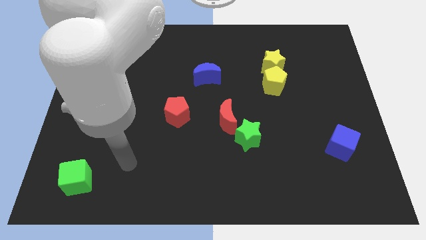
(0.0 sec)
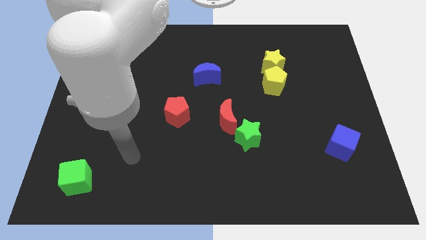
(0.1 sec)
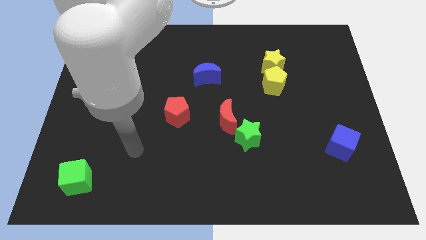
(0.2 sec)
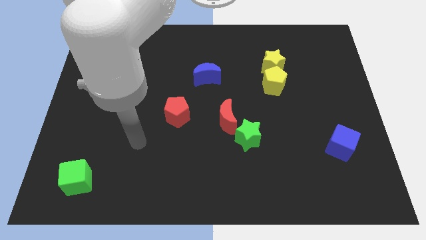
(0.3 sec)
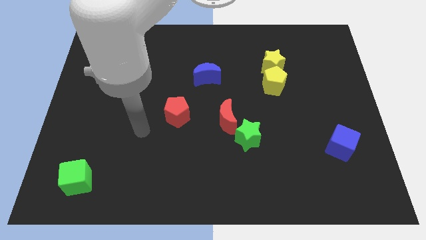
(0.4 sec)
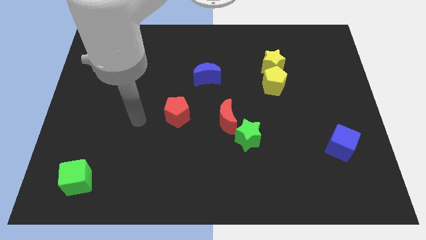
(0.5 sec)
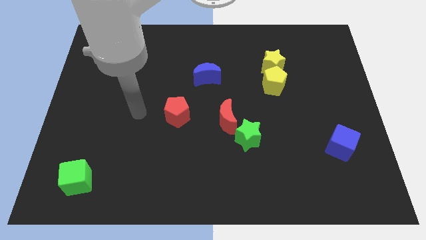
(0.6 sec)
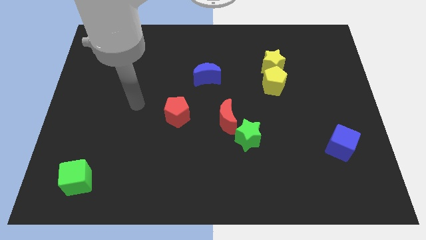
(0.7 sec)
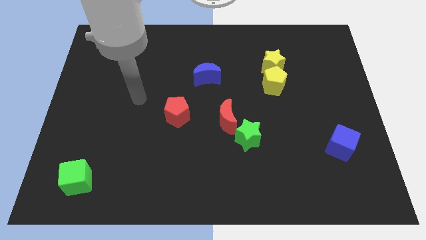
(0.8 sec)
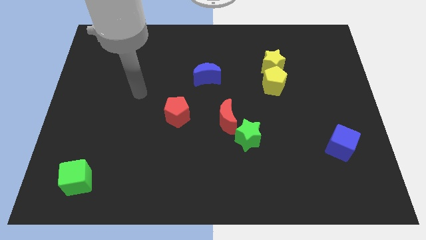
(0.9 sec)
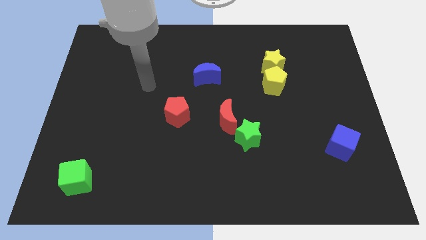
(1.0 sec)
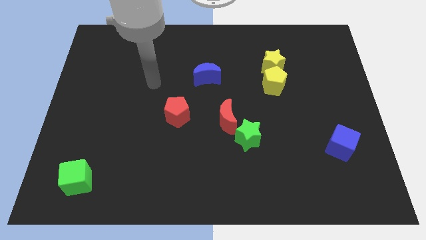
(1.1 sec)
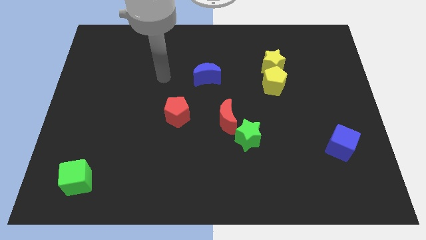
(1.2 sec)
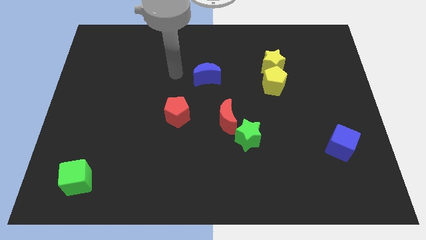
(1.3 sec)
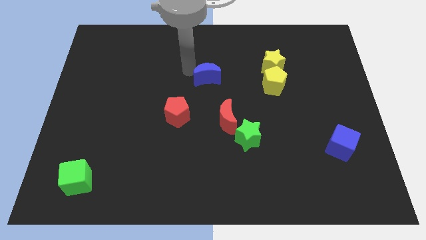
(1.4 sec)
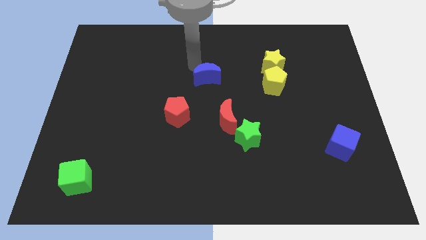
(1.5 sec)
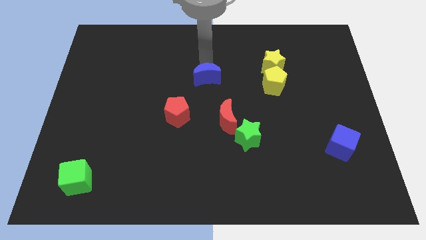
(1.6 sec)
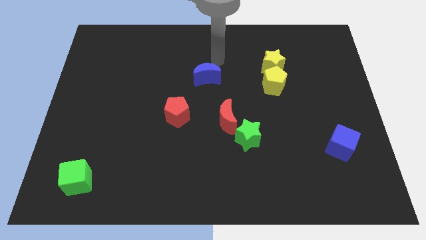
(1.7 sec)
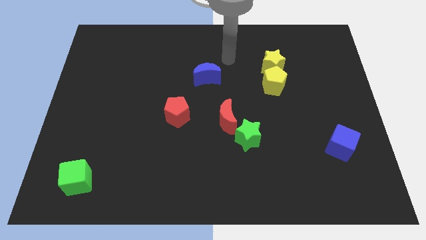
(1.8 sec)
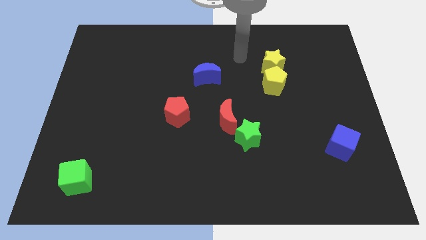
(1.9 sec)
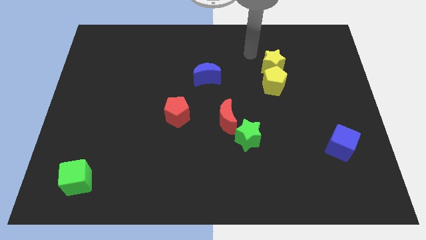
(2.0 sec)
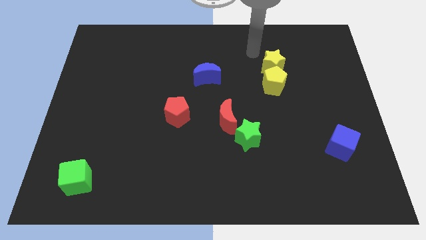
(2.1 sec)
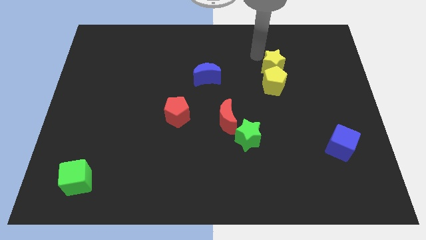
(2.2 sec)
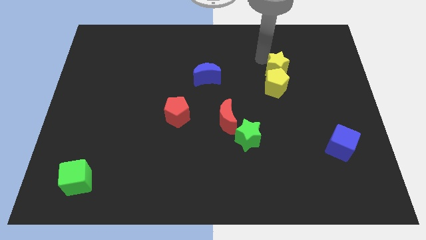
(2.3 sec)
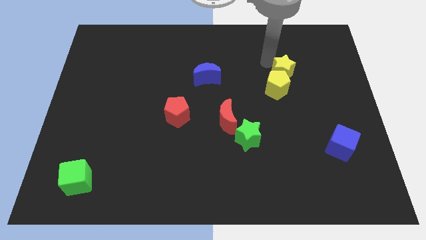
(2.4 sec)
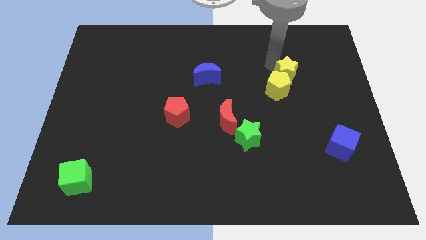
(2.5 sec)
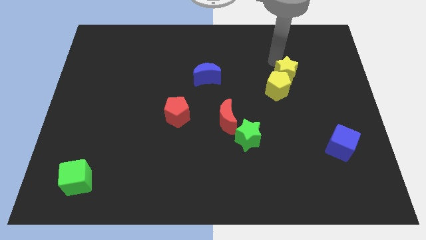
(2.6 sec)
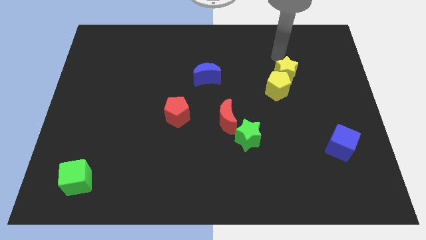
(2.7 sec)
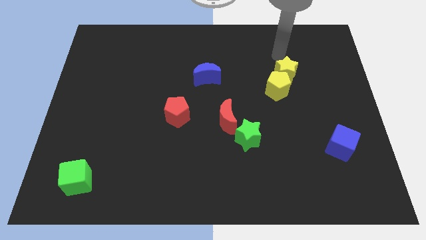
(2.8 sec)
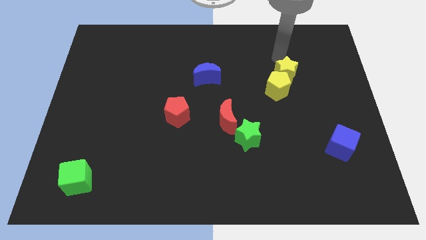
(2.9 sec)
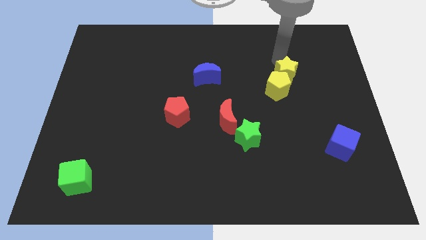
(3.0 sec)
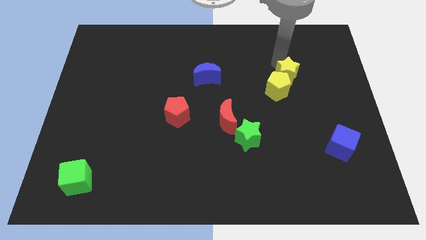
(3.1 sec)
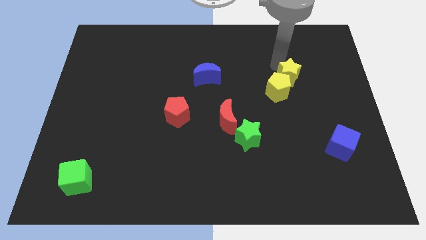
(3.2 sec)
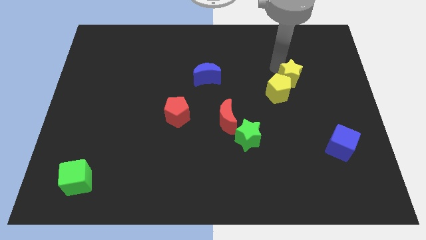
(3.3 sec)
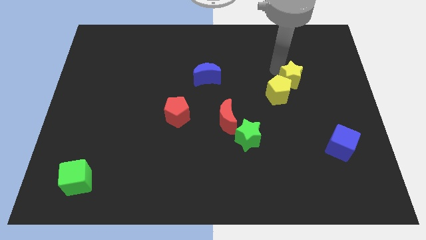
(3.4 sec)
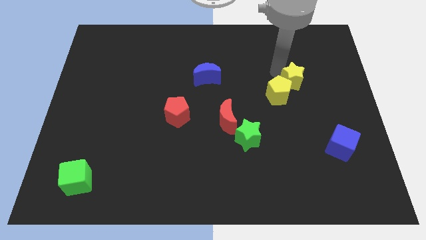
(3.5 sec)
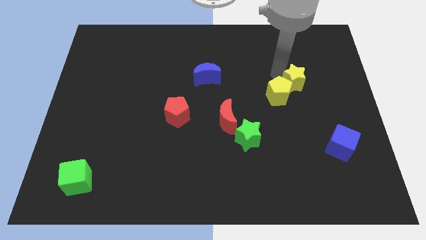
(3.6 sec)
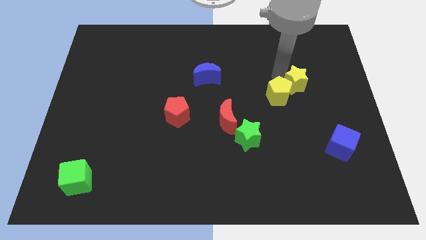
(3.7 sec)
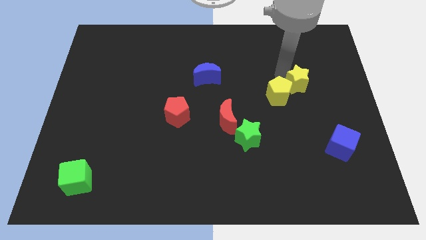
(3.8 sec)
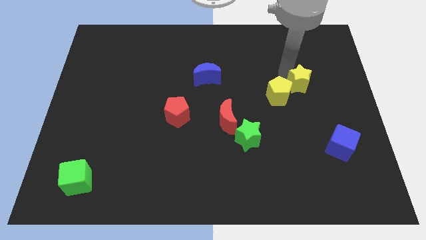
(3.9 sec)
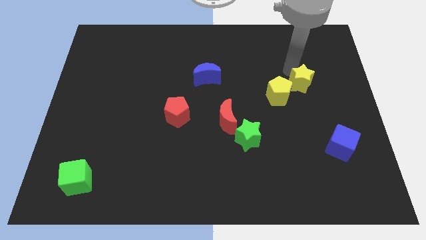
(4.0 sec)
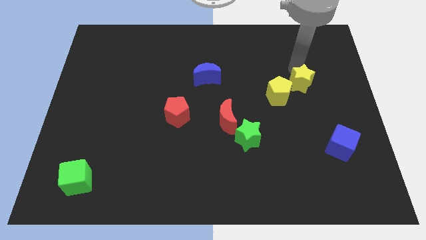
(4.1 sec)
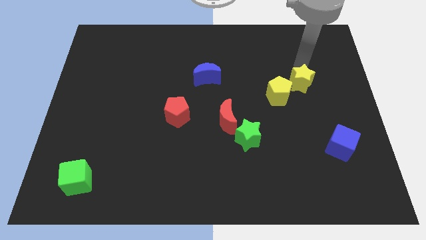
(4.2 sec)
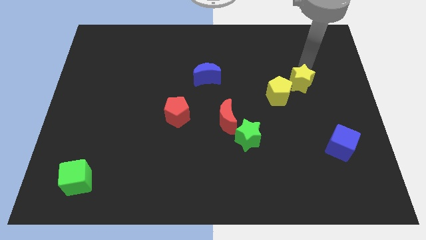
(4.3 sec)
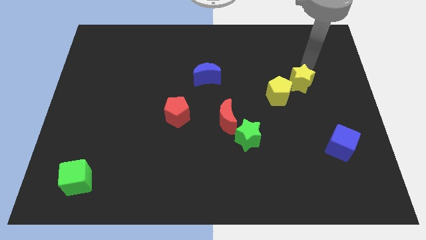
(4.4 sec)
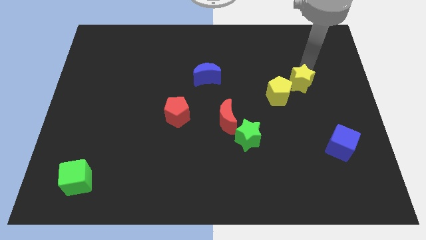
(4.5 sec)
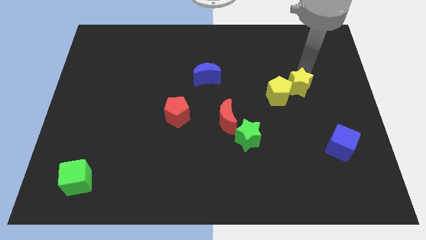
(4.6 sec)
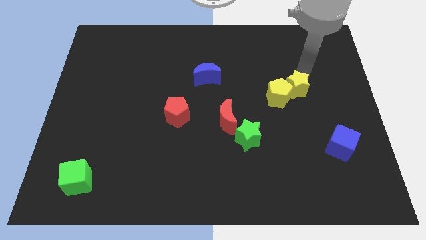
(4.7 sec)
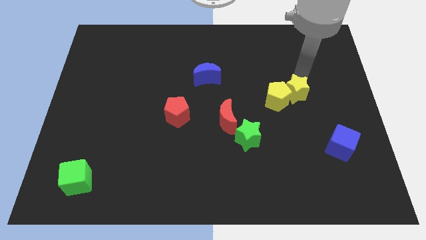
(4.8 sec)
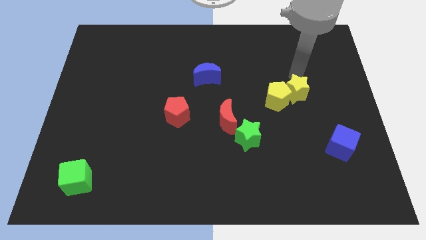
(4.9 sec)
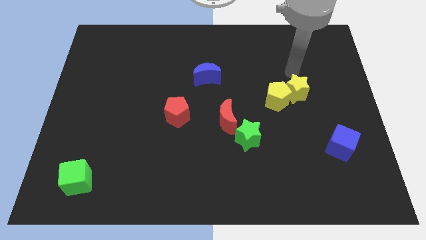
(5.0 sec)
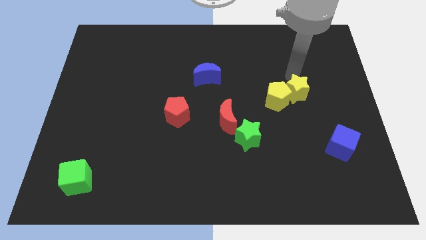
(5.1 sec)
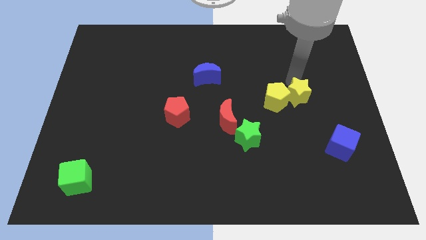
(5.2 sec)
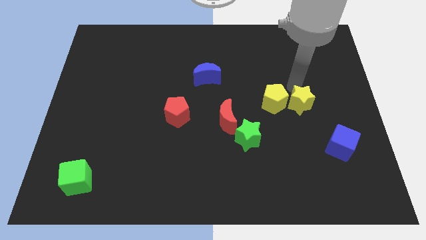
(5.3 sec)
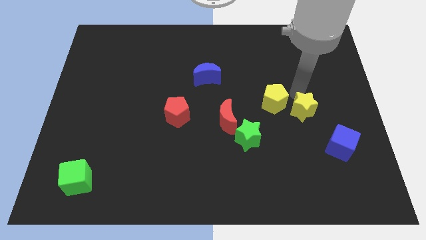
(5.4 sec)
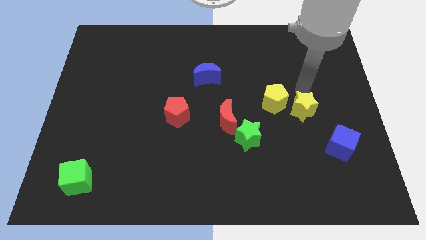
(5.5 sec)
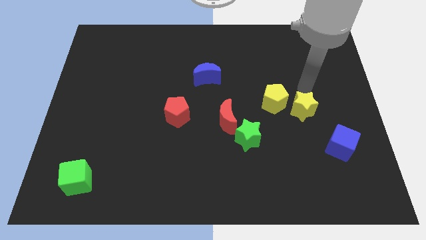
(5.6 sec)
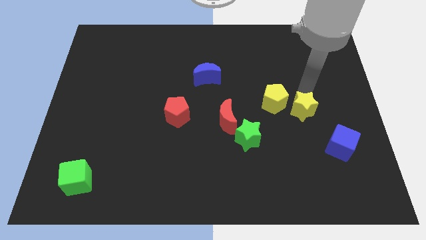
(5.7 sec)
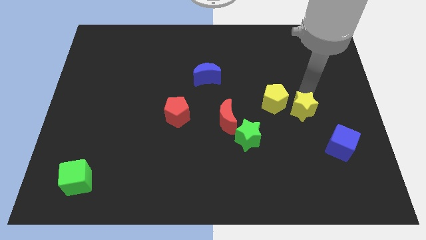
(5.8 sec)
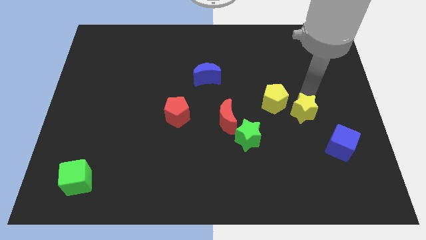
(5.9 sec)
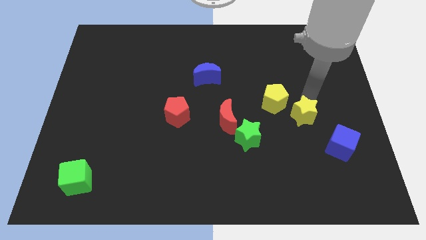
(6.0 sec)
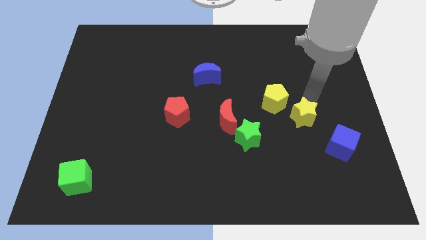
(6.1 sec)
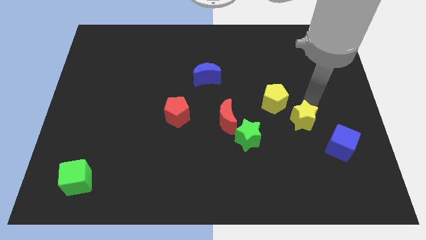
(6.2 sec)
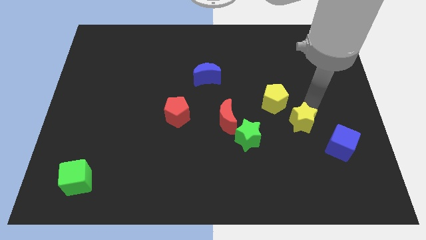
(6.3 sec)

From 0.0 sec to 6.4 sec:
put the yellow star just right of the green star

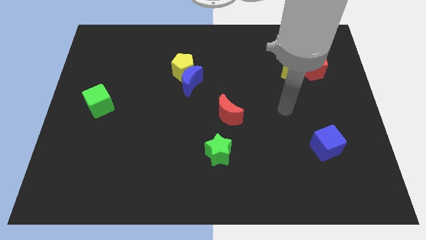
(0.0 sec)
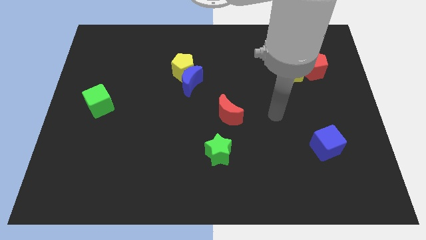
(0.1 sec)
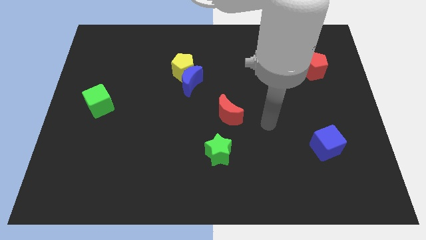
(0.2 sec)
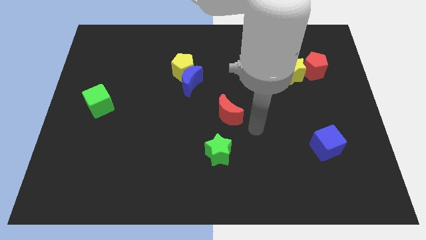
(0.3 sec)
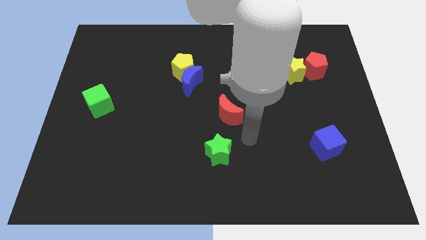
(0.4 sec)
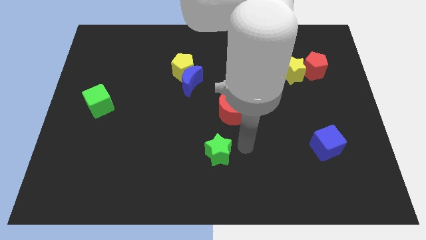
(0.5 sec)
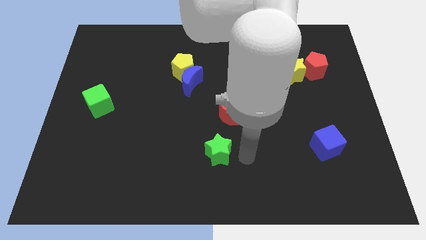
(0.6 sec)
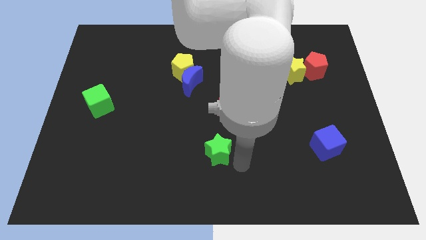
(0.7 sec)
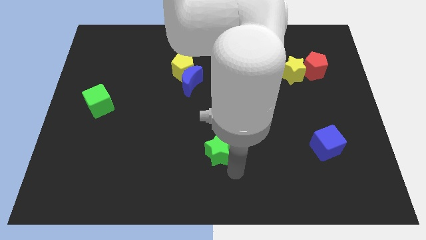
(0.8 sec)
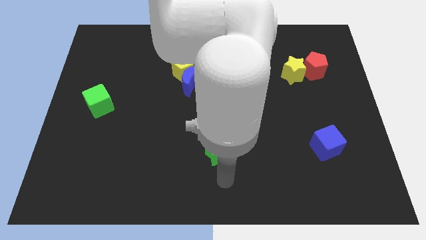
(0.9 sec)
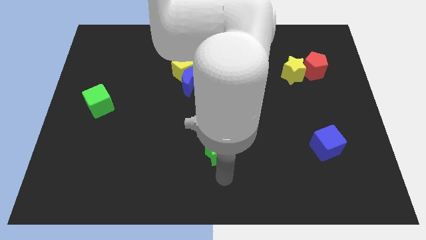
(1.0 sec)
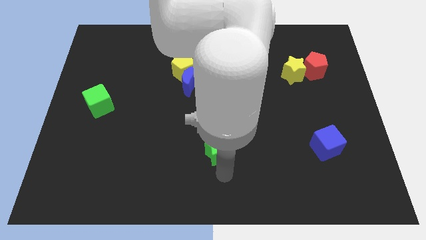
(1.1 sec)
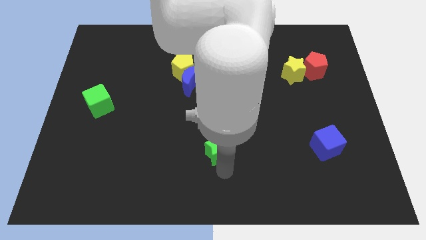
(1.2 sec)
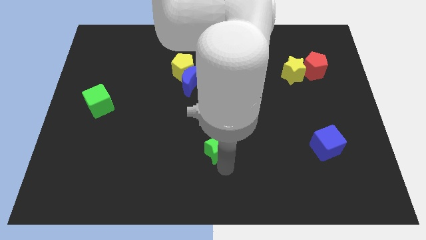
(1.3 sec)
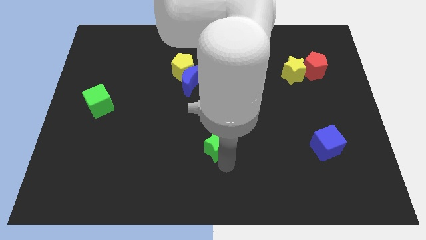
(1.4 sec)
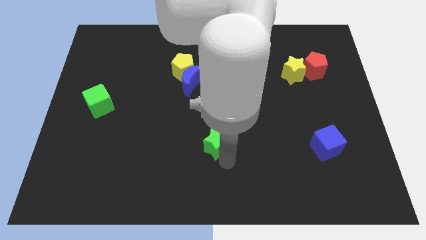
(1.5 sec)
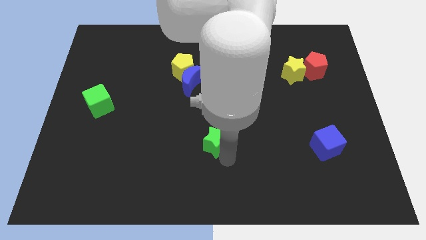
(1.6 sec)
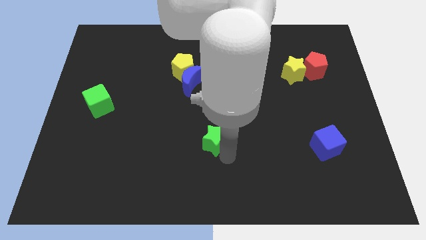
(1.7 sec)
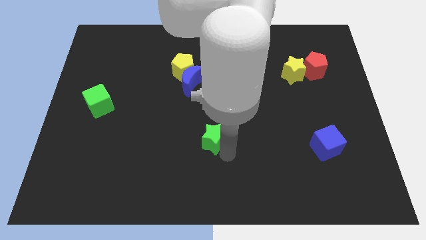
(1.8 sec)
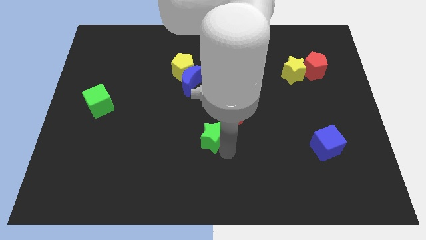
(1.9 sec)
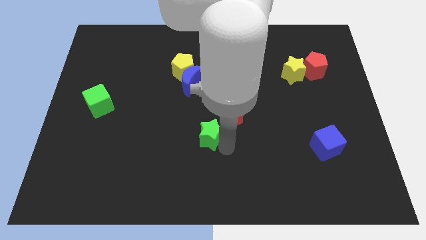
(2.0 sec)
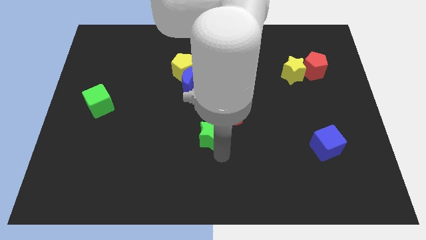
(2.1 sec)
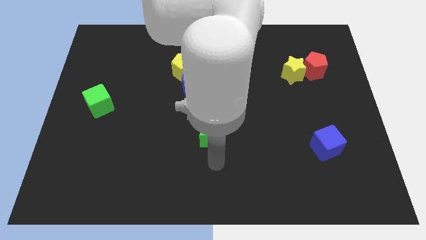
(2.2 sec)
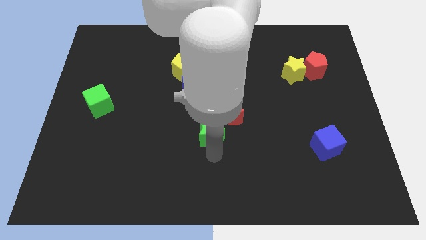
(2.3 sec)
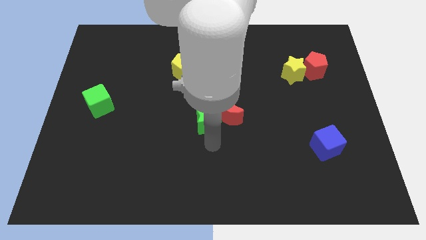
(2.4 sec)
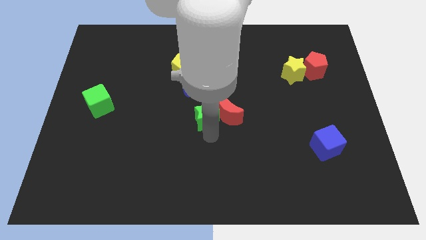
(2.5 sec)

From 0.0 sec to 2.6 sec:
push the green star diagonally up and to the left of the red moon
